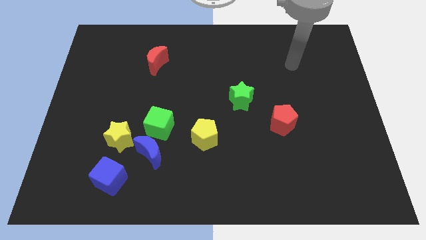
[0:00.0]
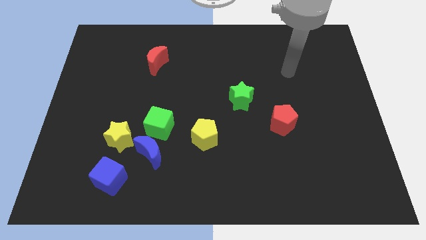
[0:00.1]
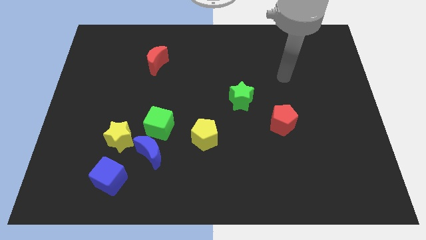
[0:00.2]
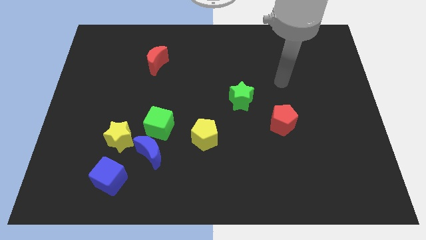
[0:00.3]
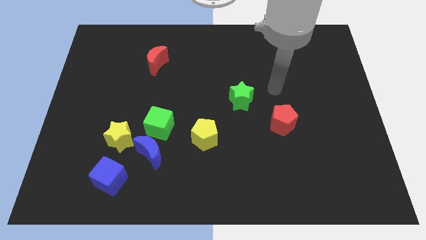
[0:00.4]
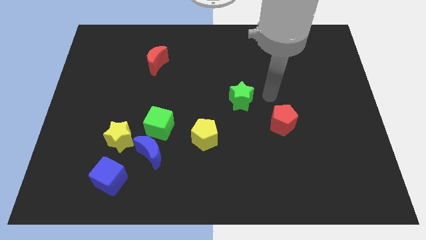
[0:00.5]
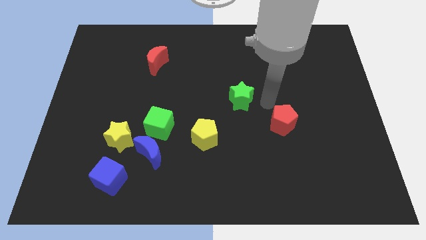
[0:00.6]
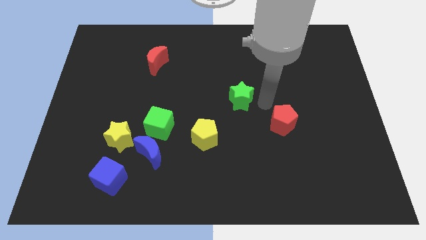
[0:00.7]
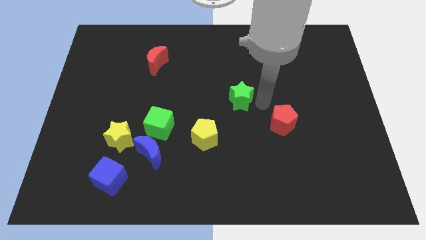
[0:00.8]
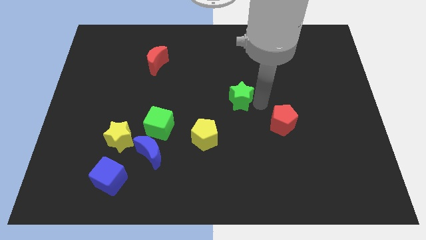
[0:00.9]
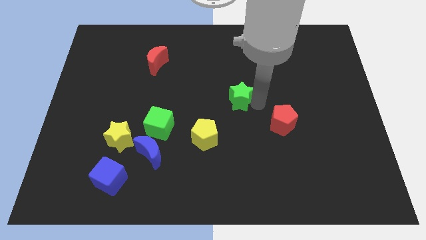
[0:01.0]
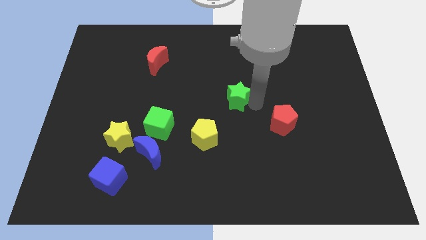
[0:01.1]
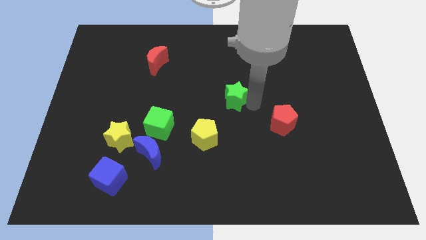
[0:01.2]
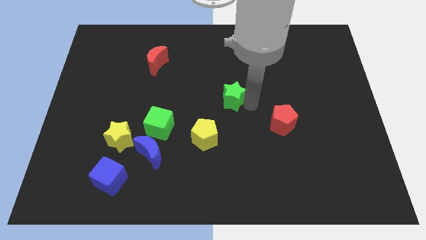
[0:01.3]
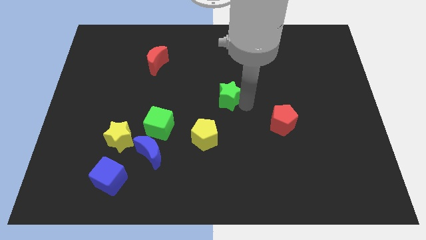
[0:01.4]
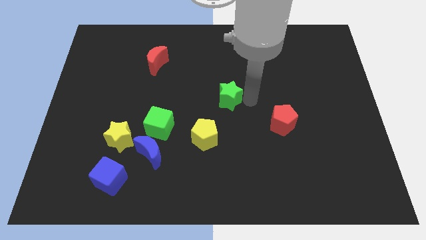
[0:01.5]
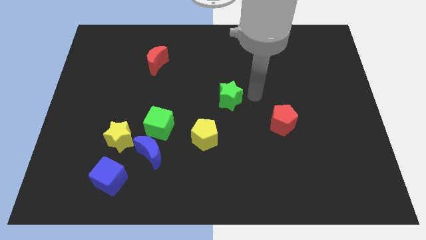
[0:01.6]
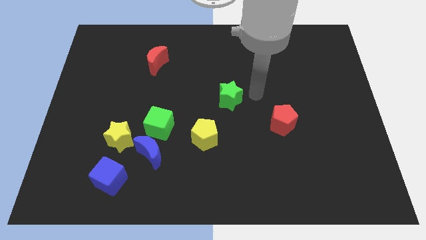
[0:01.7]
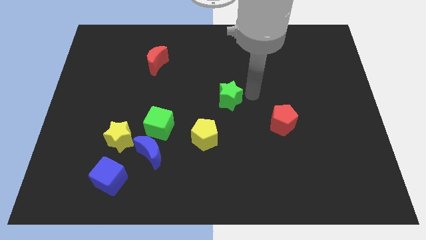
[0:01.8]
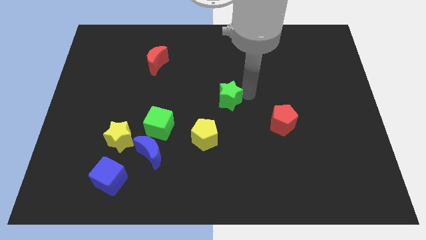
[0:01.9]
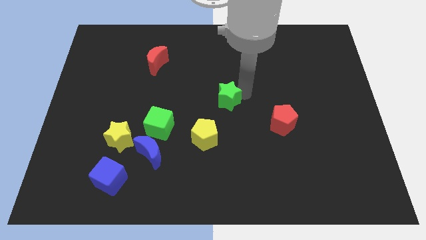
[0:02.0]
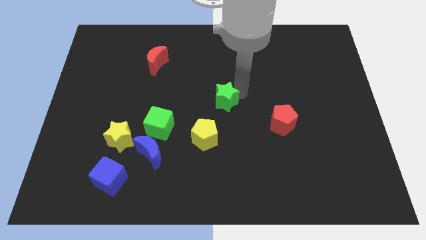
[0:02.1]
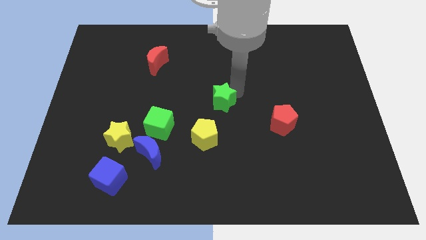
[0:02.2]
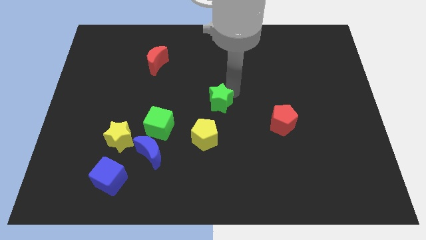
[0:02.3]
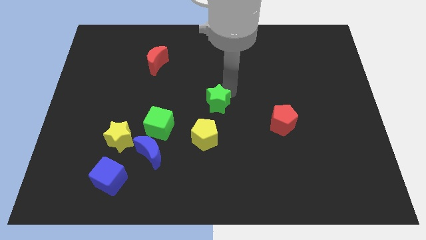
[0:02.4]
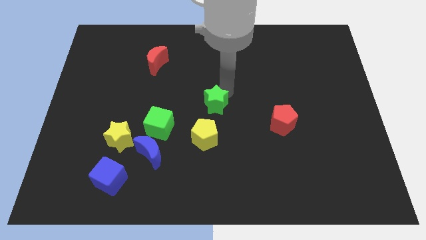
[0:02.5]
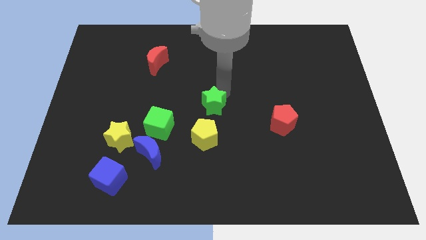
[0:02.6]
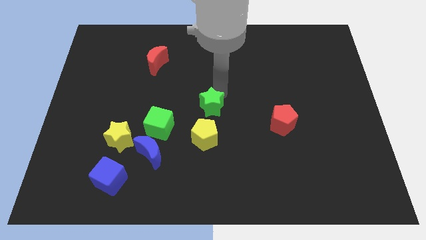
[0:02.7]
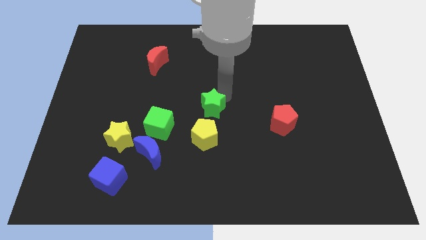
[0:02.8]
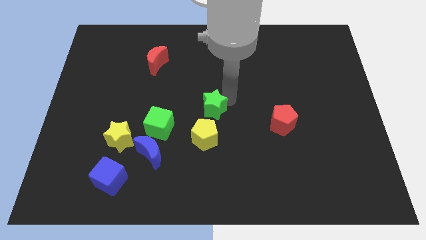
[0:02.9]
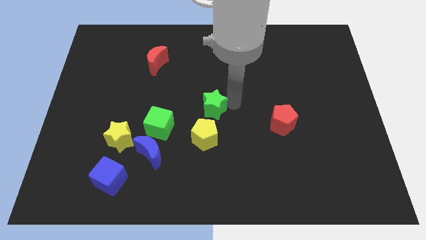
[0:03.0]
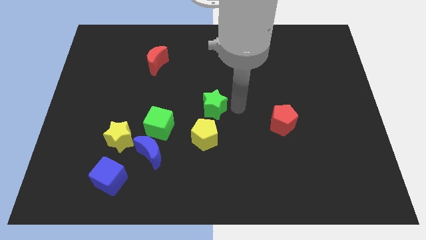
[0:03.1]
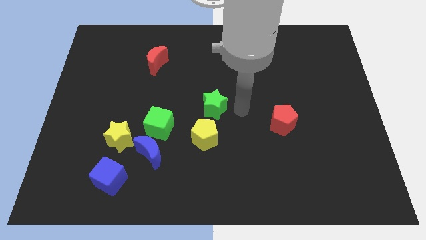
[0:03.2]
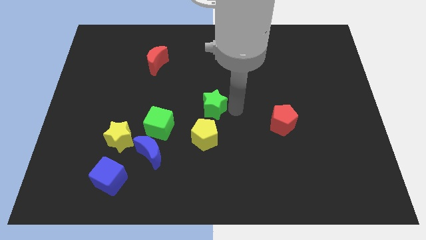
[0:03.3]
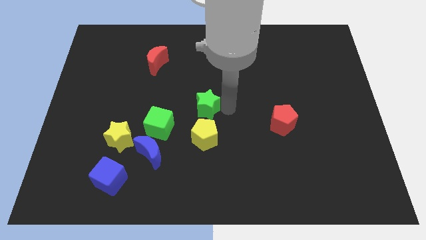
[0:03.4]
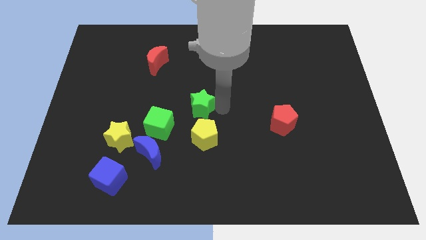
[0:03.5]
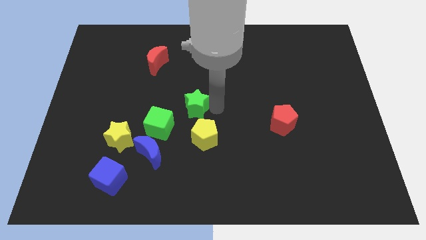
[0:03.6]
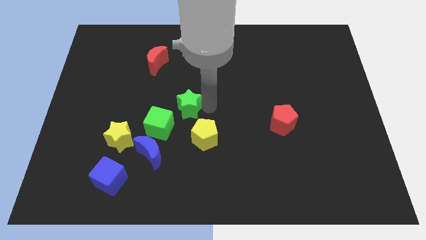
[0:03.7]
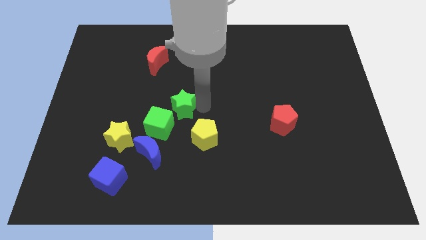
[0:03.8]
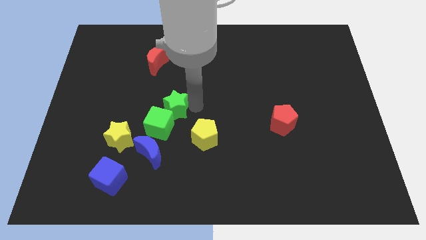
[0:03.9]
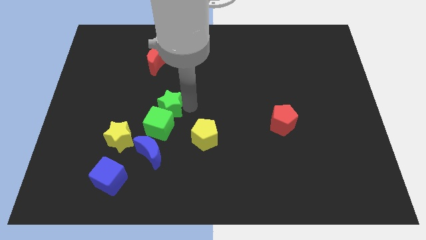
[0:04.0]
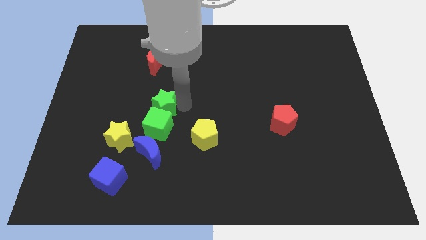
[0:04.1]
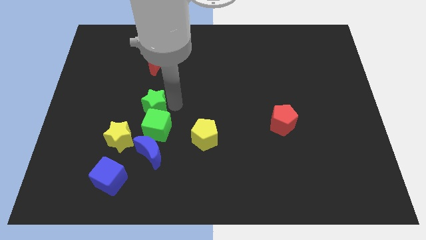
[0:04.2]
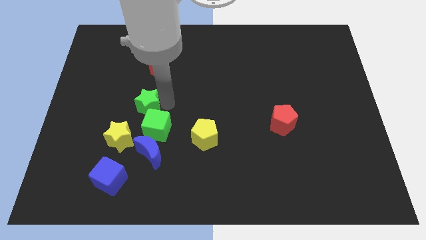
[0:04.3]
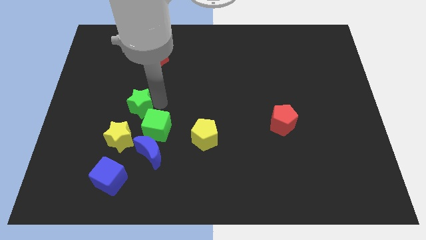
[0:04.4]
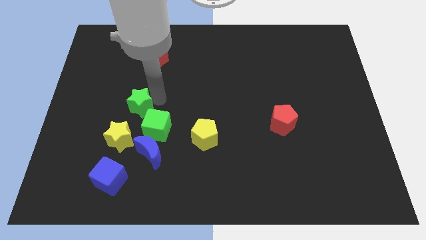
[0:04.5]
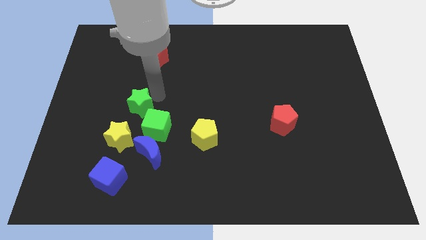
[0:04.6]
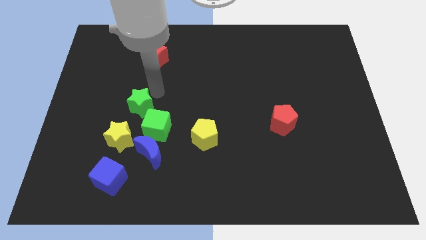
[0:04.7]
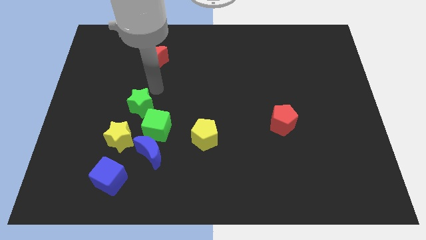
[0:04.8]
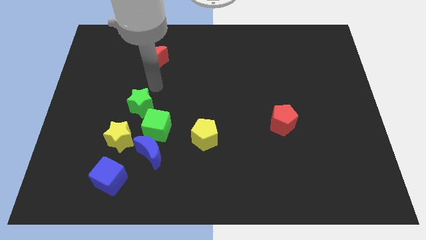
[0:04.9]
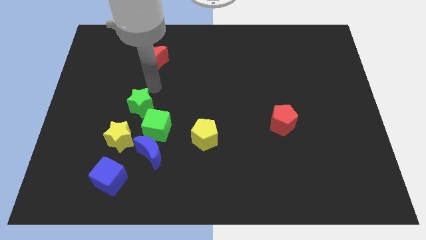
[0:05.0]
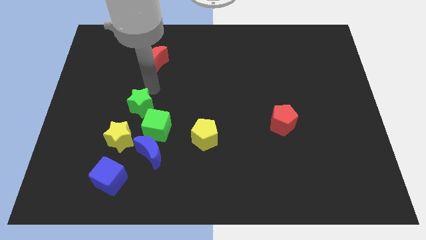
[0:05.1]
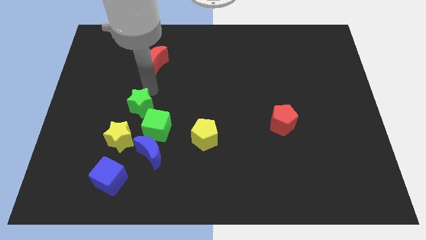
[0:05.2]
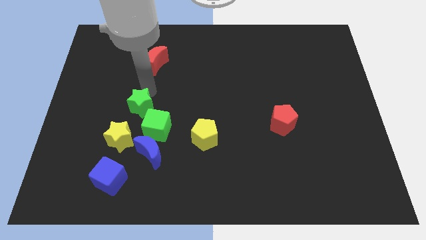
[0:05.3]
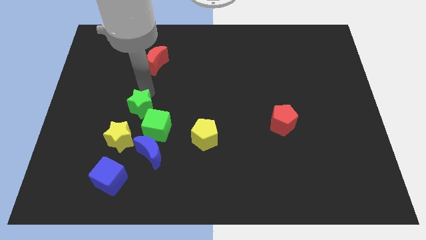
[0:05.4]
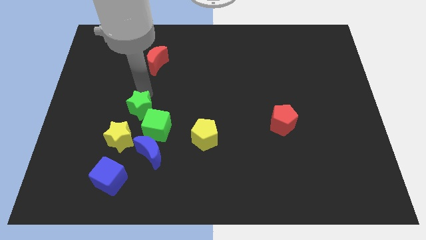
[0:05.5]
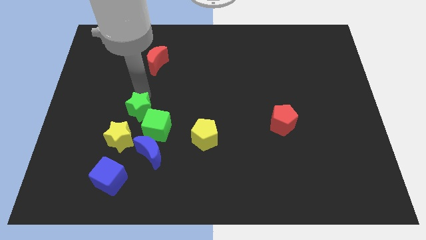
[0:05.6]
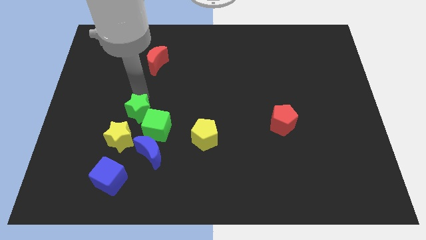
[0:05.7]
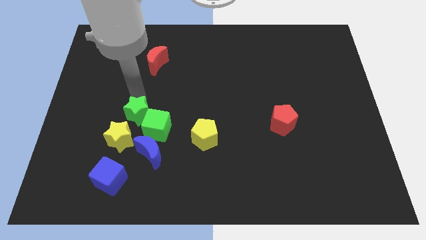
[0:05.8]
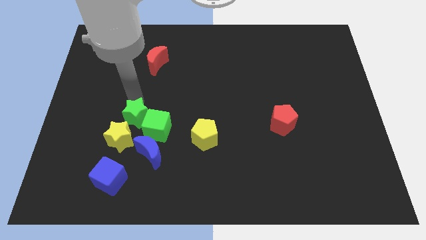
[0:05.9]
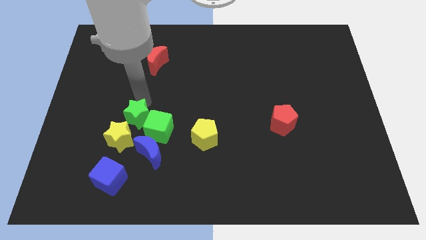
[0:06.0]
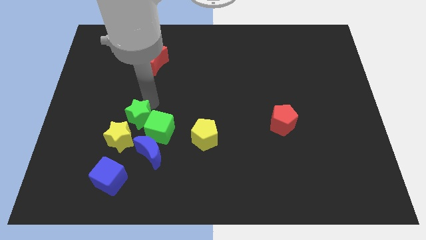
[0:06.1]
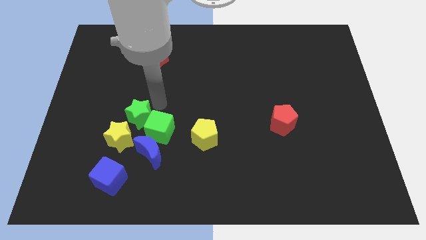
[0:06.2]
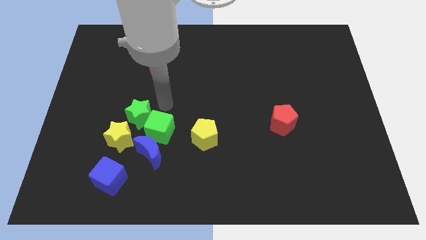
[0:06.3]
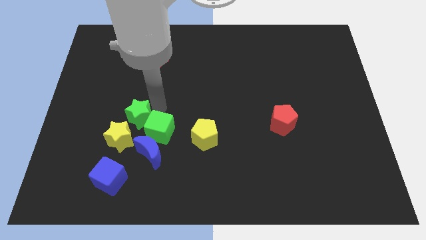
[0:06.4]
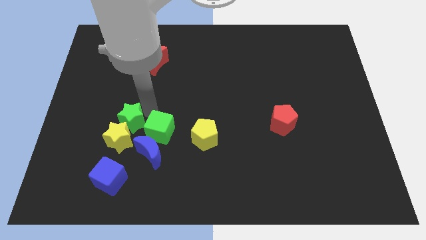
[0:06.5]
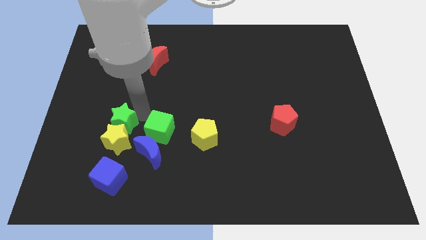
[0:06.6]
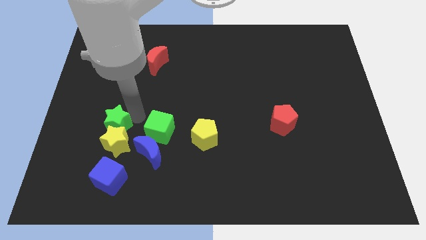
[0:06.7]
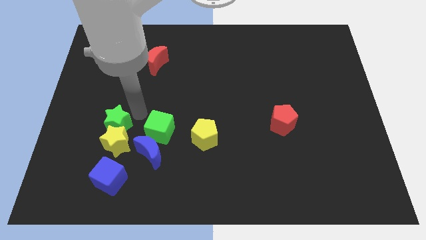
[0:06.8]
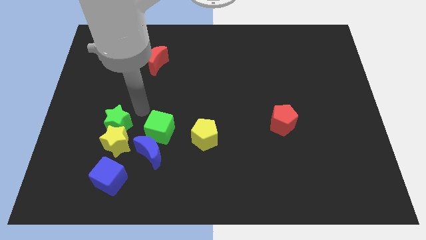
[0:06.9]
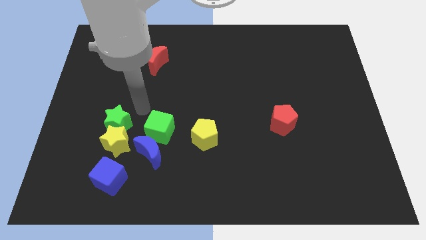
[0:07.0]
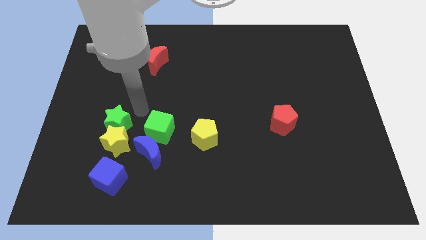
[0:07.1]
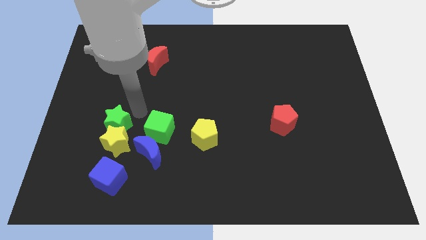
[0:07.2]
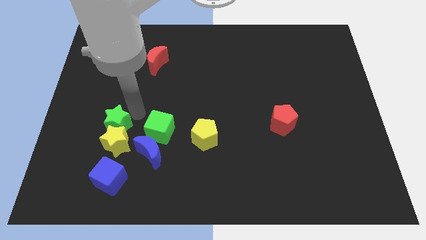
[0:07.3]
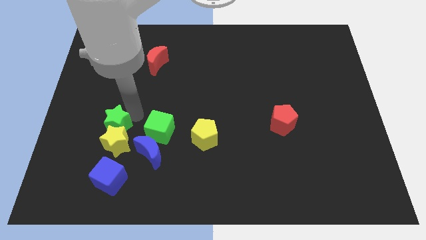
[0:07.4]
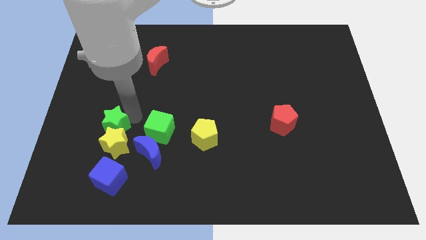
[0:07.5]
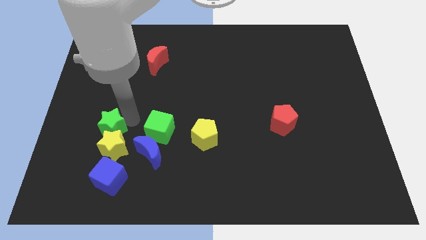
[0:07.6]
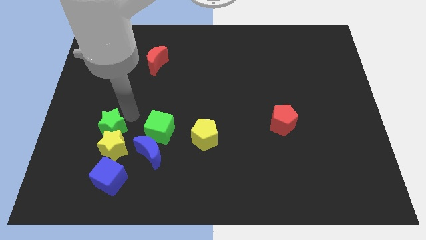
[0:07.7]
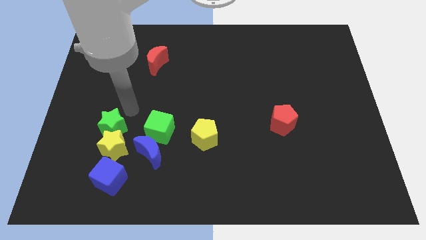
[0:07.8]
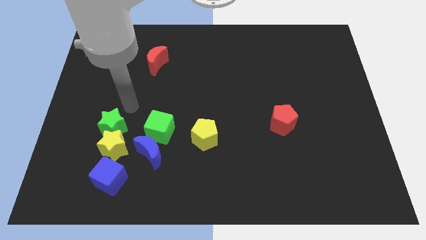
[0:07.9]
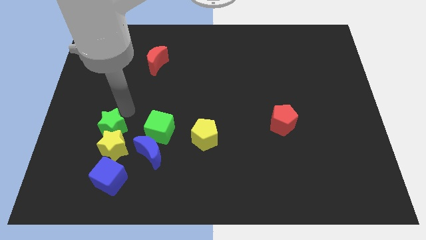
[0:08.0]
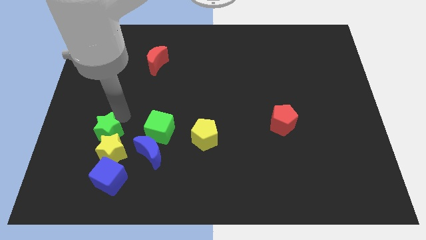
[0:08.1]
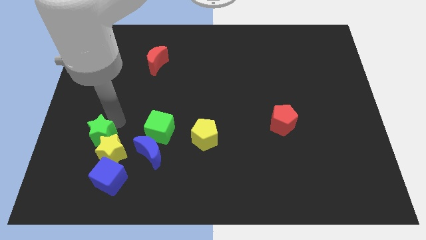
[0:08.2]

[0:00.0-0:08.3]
slide the green star to the left of the blue moon
